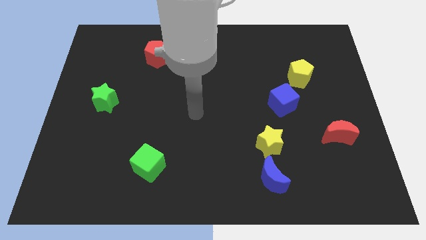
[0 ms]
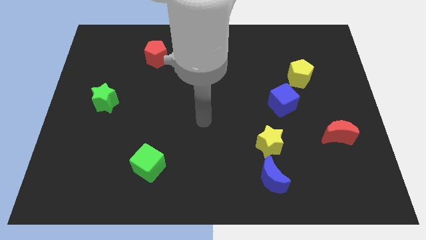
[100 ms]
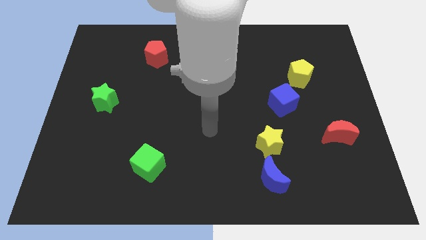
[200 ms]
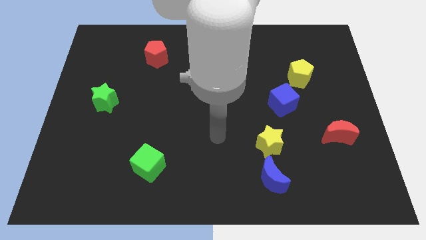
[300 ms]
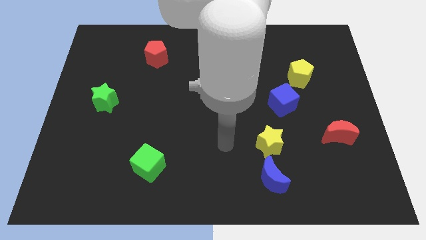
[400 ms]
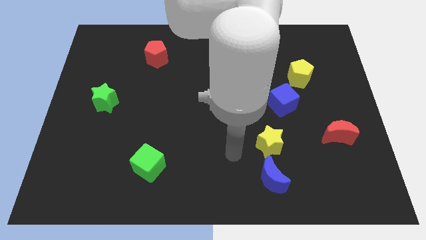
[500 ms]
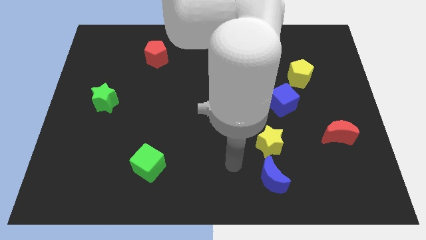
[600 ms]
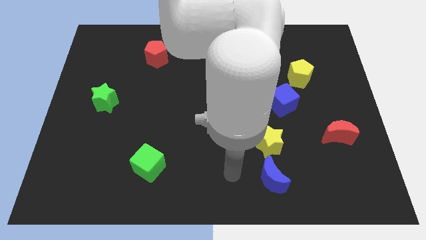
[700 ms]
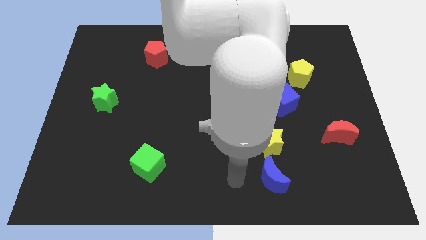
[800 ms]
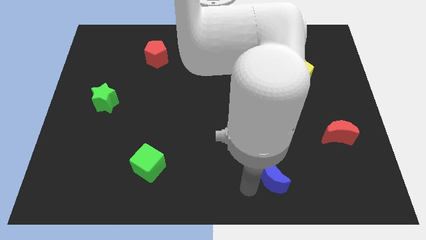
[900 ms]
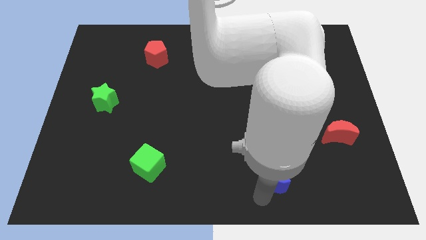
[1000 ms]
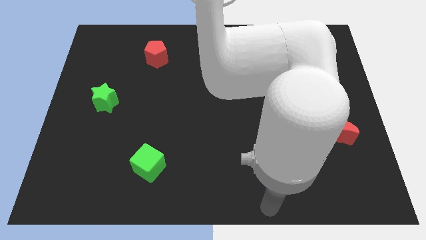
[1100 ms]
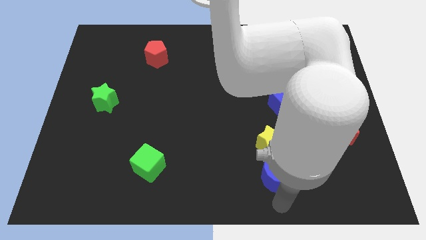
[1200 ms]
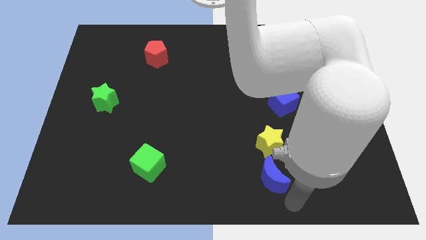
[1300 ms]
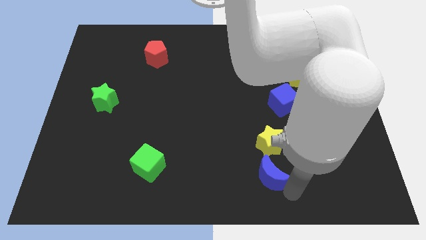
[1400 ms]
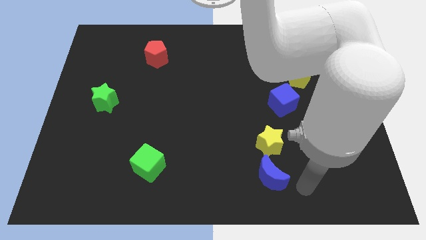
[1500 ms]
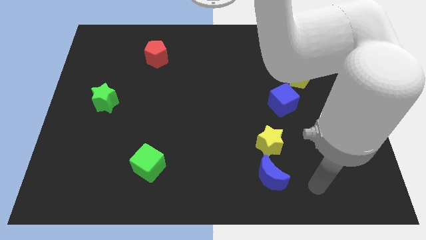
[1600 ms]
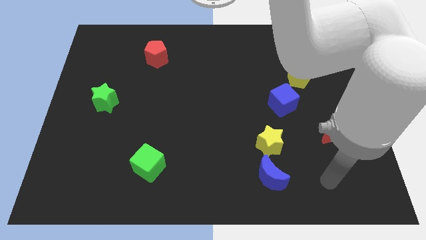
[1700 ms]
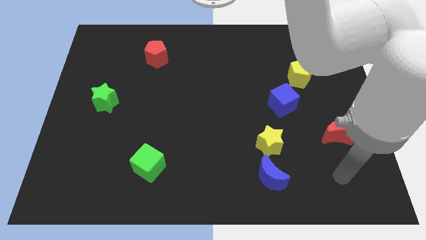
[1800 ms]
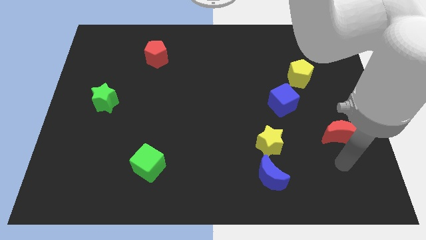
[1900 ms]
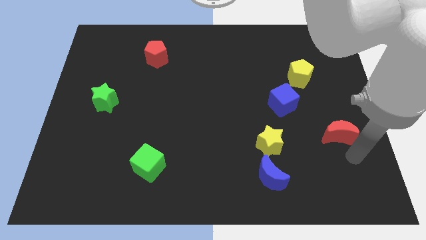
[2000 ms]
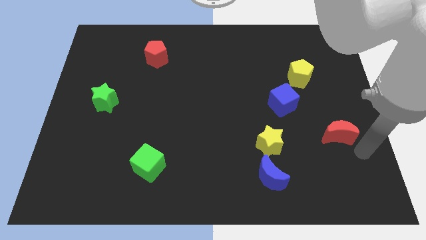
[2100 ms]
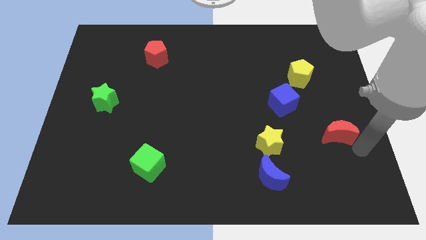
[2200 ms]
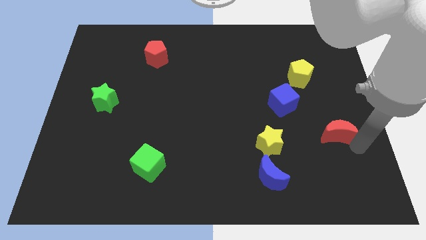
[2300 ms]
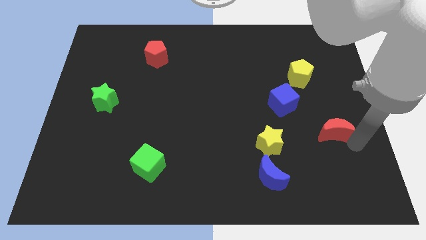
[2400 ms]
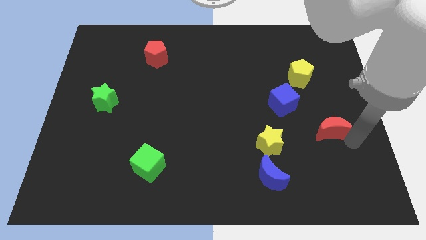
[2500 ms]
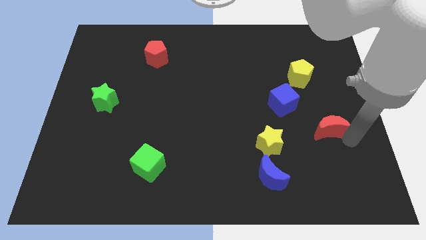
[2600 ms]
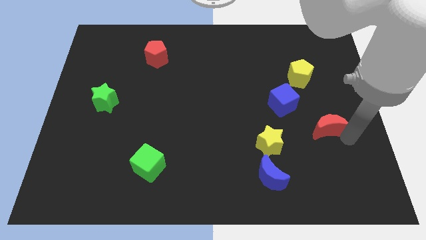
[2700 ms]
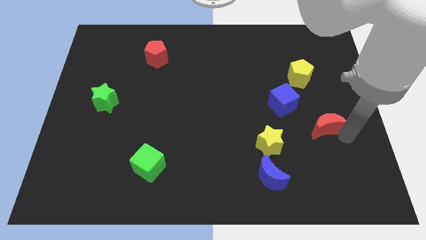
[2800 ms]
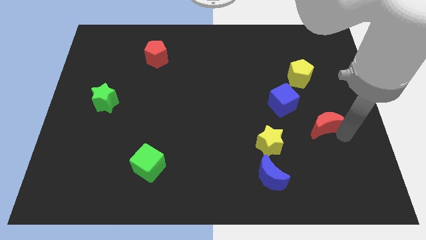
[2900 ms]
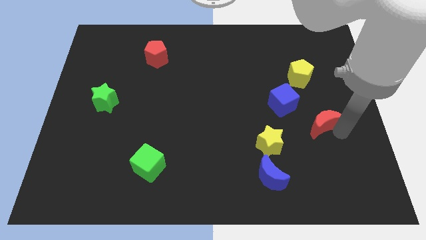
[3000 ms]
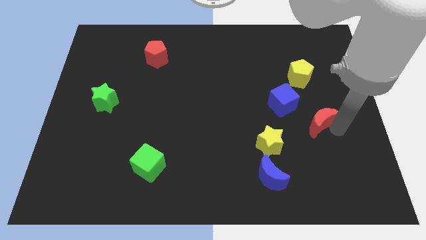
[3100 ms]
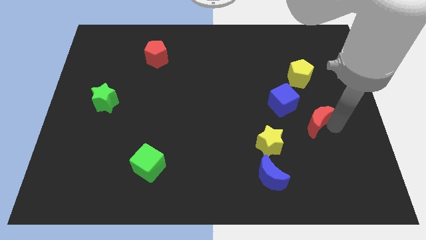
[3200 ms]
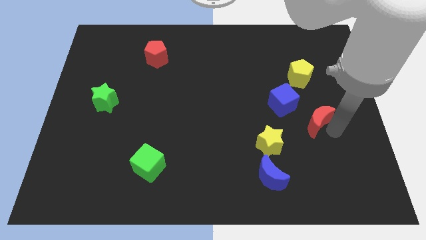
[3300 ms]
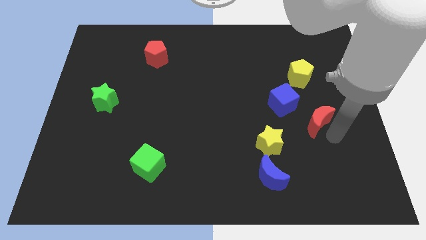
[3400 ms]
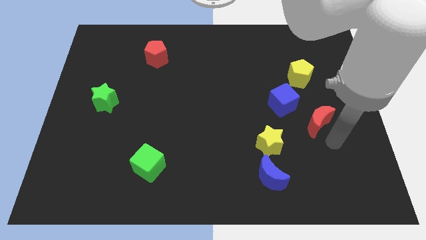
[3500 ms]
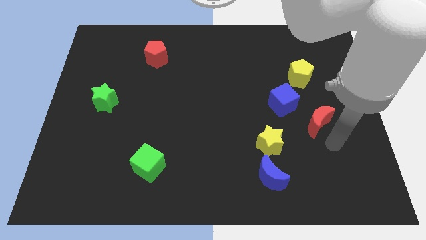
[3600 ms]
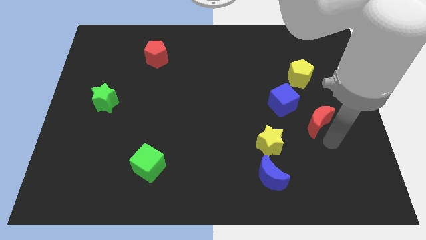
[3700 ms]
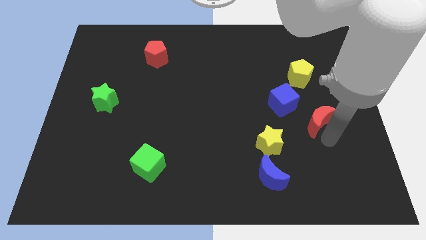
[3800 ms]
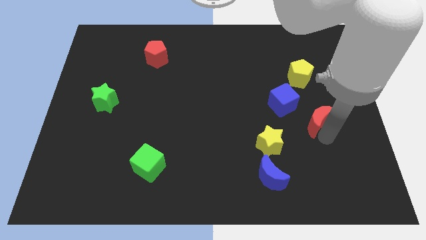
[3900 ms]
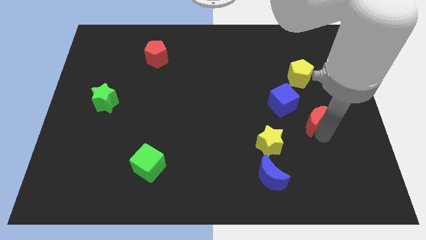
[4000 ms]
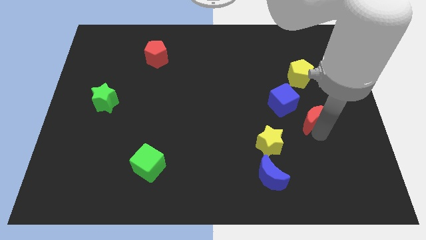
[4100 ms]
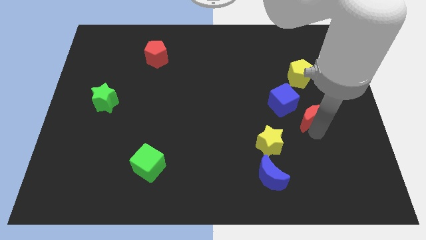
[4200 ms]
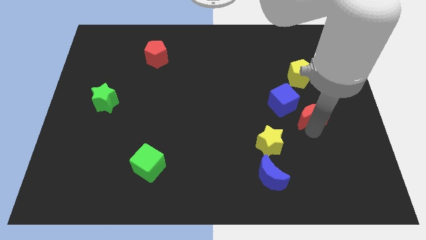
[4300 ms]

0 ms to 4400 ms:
slightly slide the red moon up and left diagonally

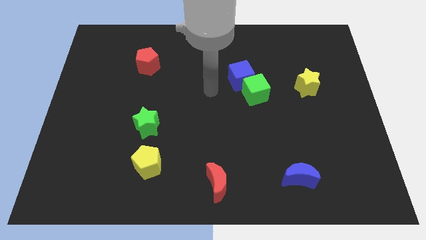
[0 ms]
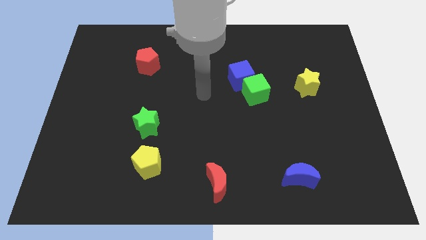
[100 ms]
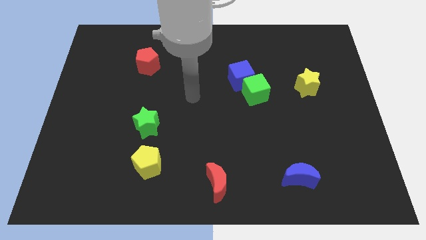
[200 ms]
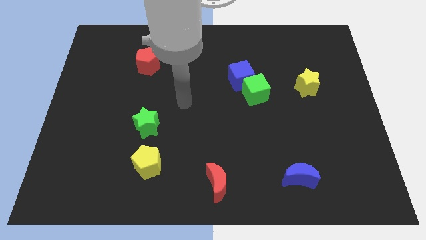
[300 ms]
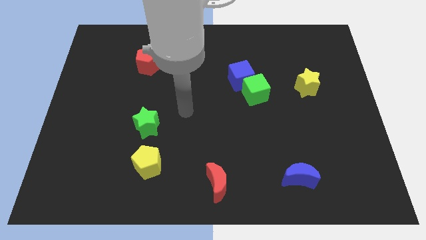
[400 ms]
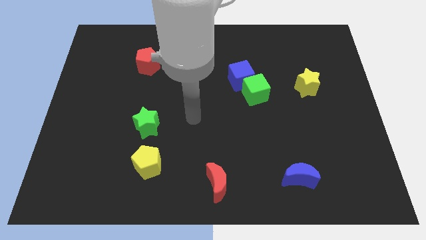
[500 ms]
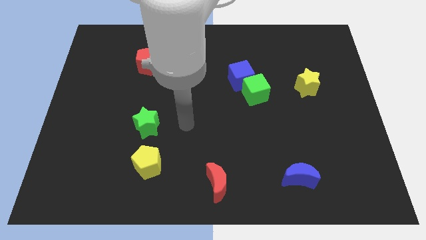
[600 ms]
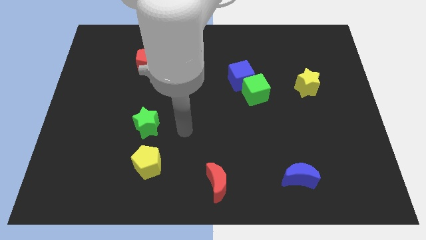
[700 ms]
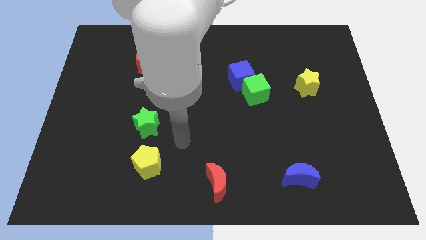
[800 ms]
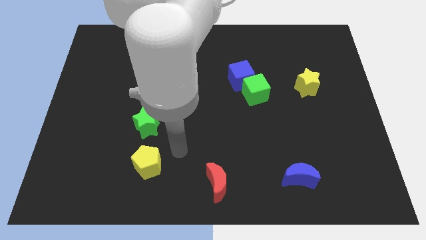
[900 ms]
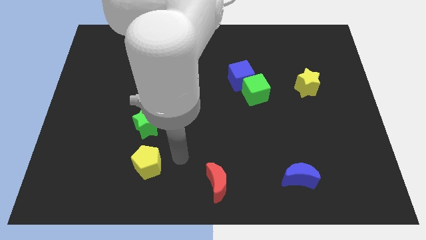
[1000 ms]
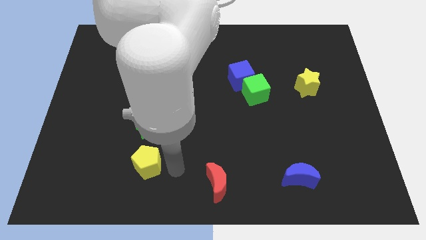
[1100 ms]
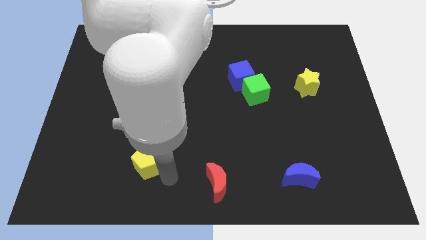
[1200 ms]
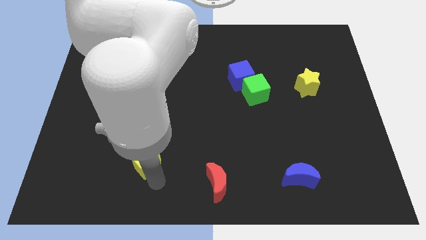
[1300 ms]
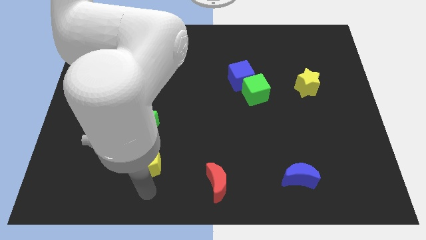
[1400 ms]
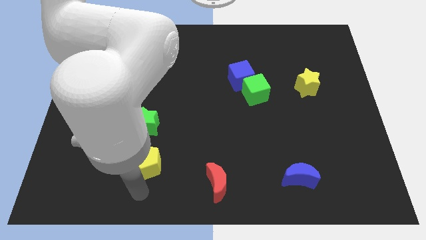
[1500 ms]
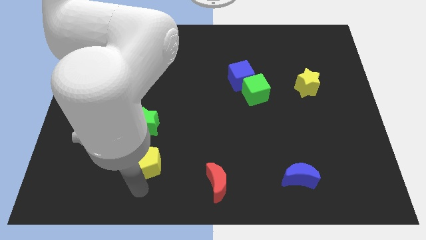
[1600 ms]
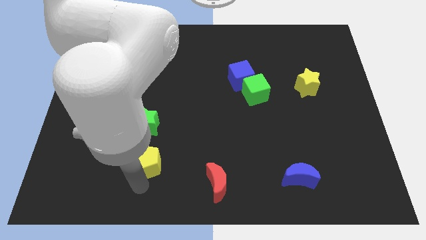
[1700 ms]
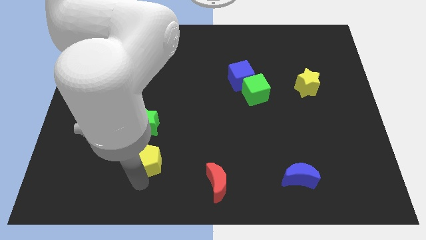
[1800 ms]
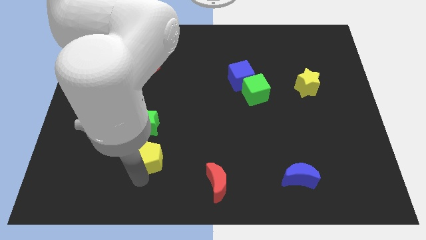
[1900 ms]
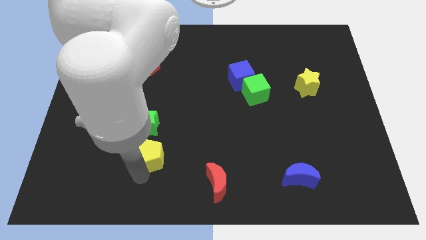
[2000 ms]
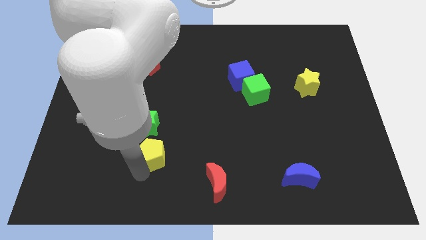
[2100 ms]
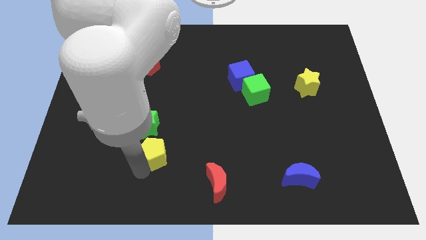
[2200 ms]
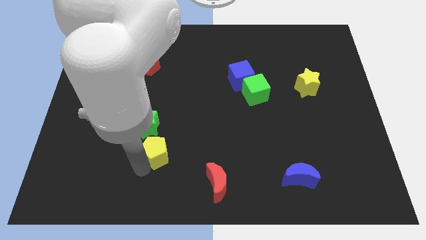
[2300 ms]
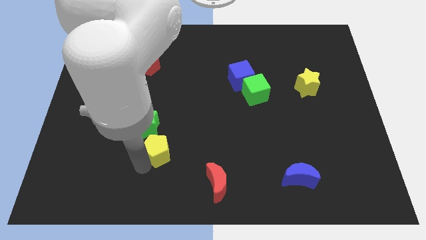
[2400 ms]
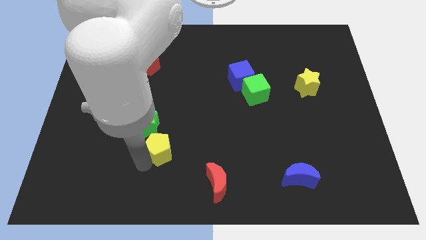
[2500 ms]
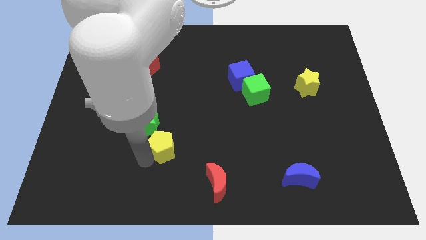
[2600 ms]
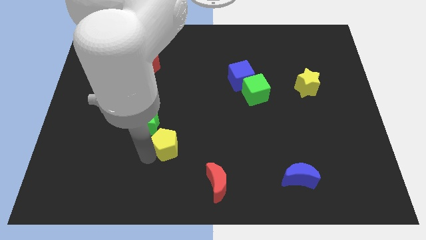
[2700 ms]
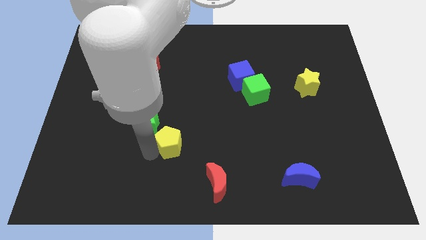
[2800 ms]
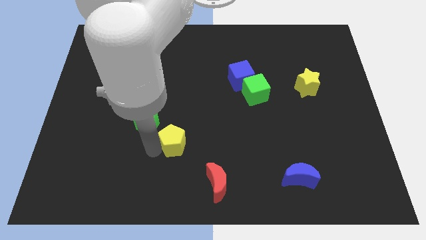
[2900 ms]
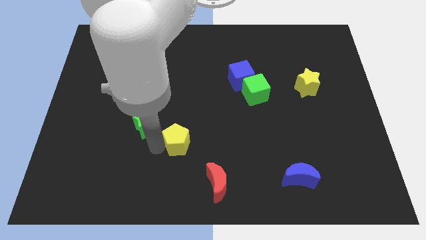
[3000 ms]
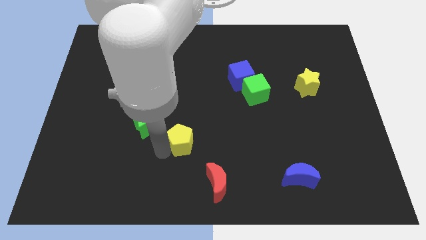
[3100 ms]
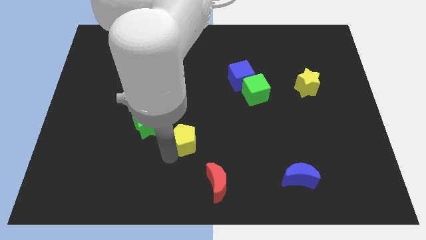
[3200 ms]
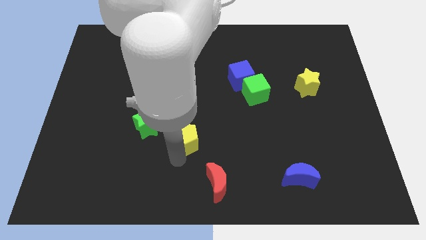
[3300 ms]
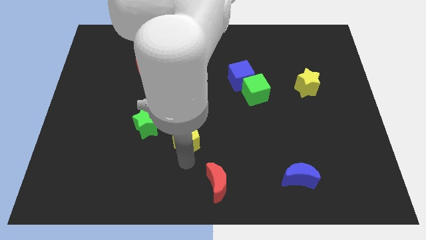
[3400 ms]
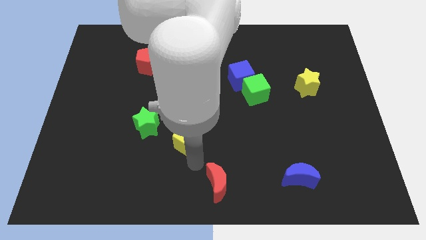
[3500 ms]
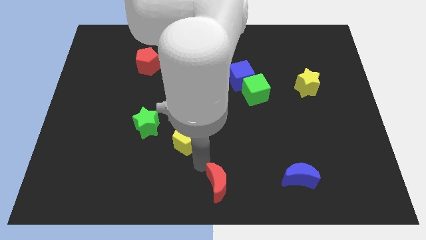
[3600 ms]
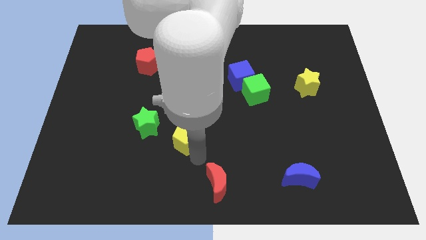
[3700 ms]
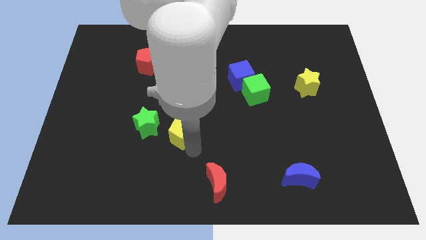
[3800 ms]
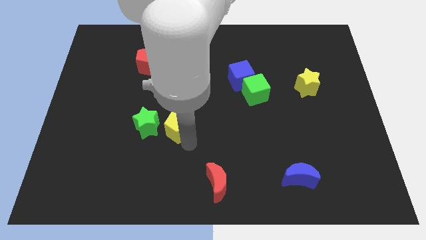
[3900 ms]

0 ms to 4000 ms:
slide the yellow pentagon up a bit
